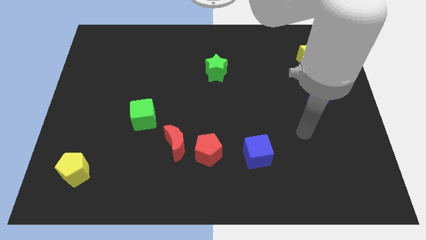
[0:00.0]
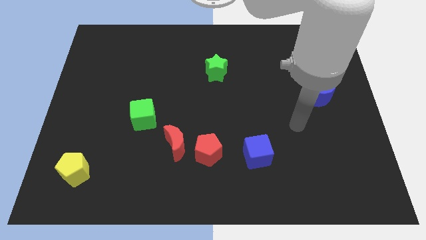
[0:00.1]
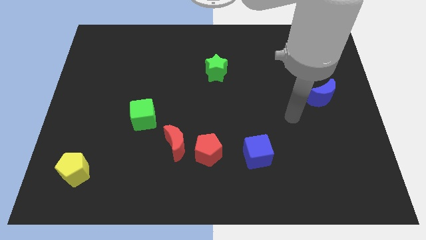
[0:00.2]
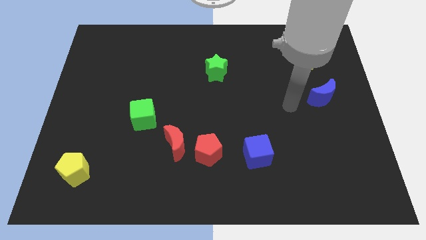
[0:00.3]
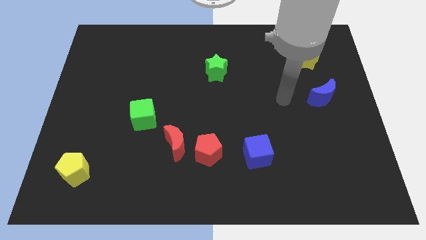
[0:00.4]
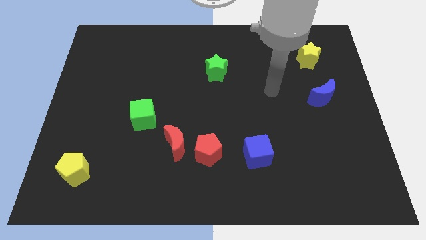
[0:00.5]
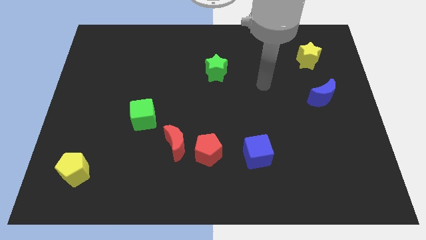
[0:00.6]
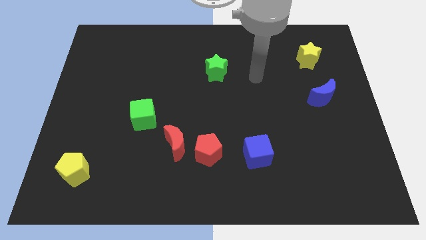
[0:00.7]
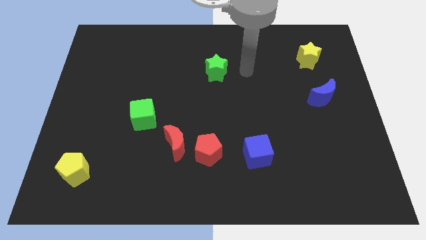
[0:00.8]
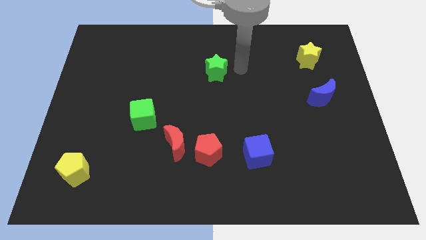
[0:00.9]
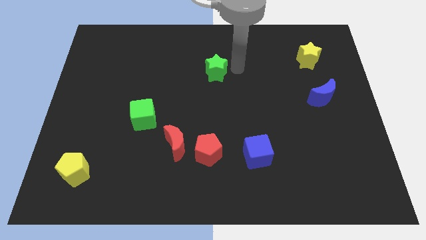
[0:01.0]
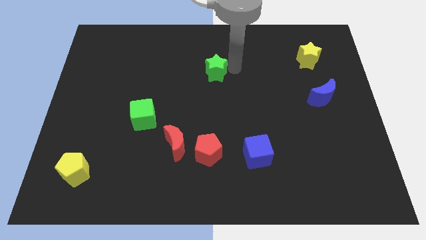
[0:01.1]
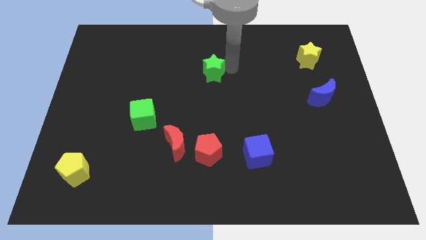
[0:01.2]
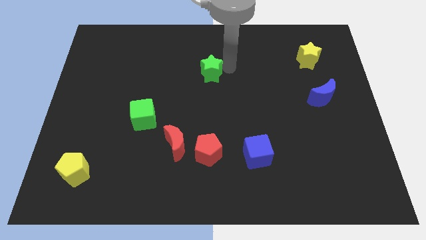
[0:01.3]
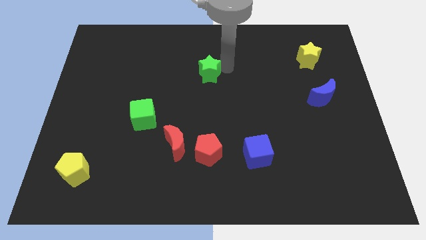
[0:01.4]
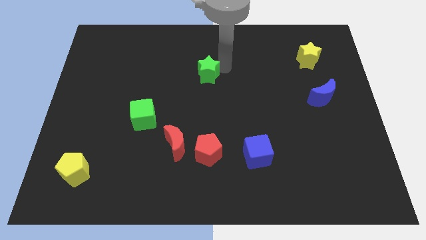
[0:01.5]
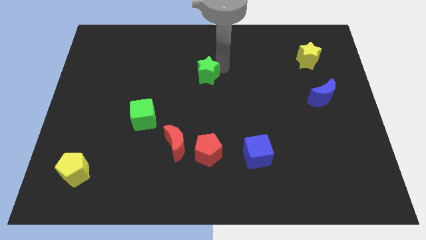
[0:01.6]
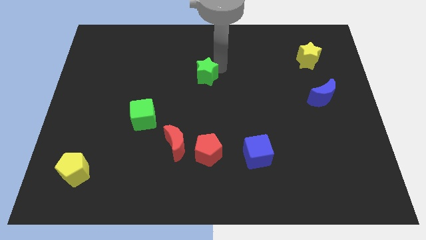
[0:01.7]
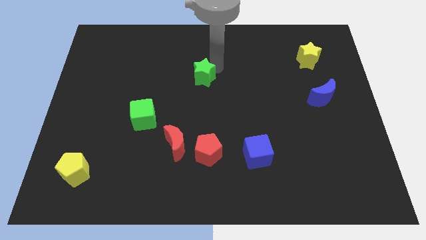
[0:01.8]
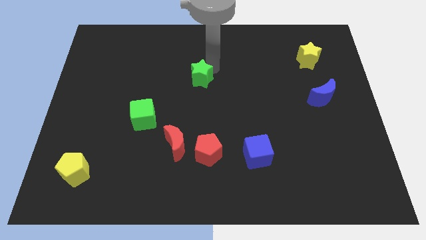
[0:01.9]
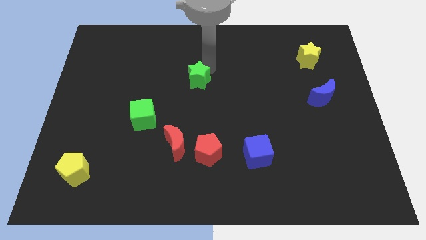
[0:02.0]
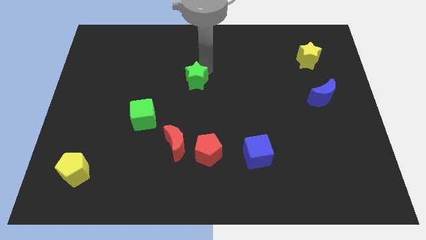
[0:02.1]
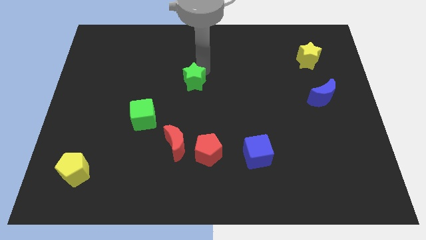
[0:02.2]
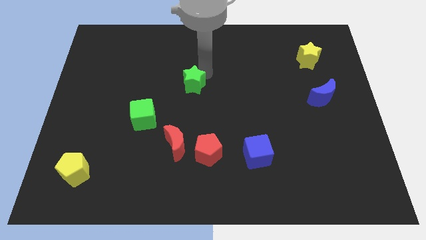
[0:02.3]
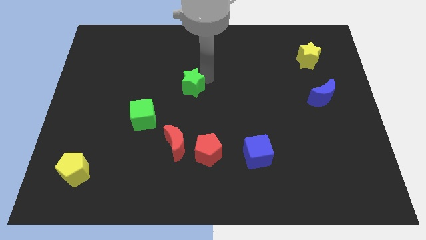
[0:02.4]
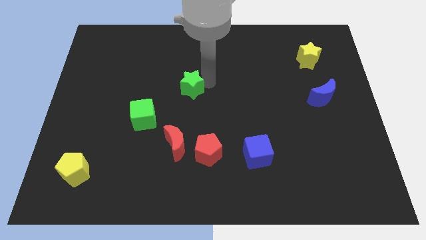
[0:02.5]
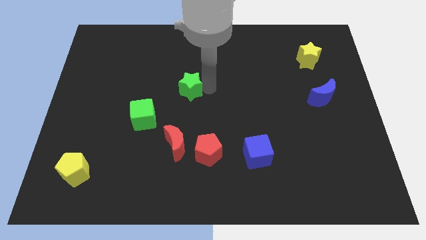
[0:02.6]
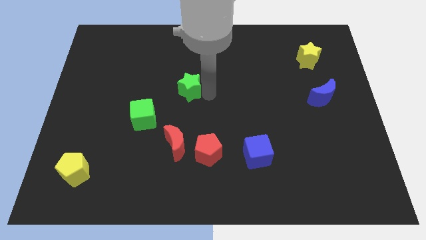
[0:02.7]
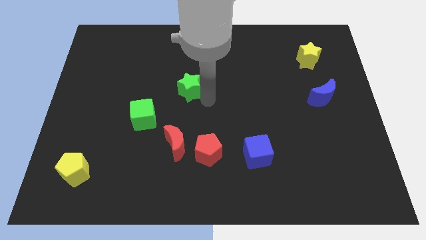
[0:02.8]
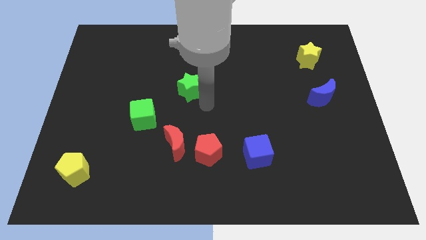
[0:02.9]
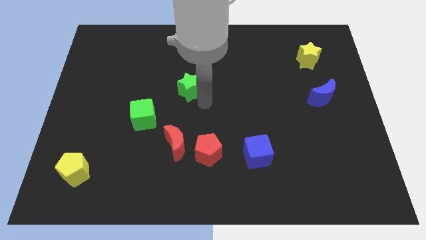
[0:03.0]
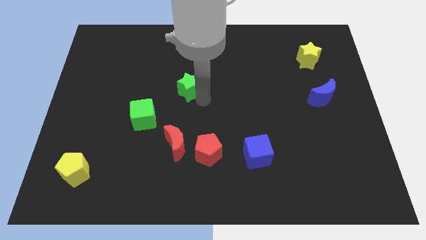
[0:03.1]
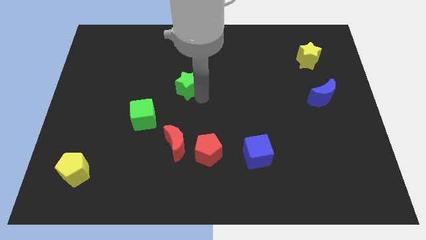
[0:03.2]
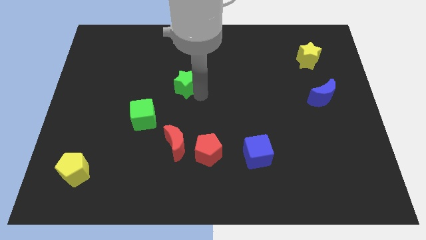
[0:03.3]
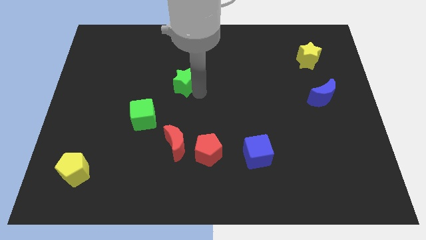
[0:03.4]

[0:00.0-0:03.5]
move the green star left somewhat

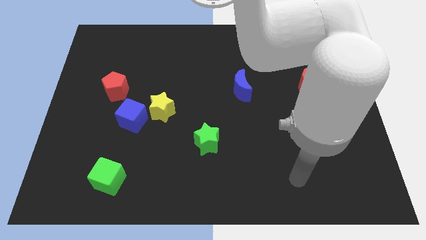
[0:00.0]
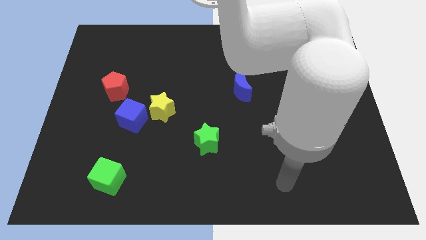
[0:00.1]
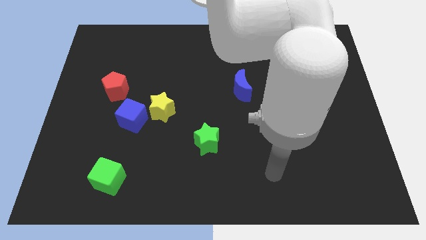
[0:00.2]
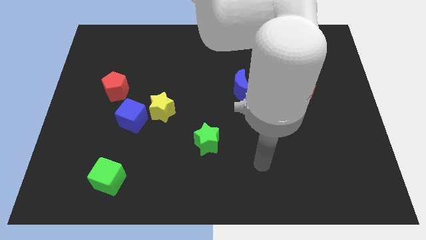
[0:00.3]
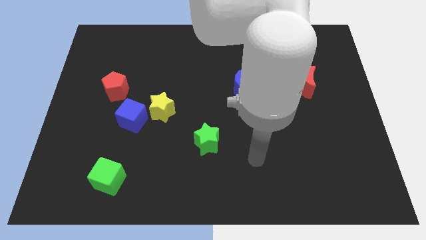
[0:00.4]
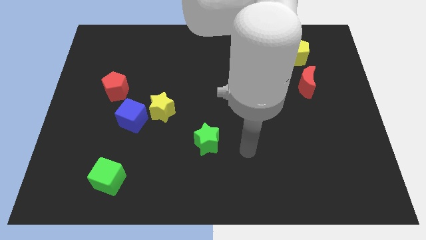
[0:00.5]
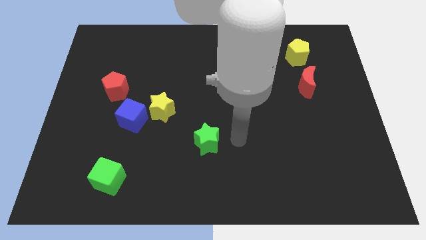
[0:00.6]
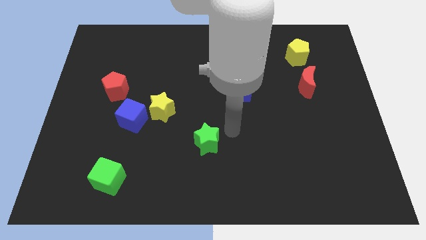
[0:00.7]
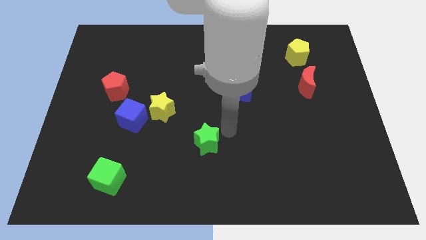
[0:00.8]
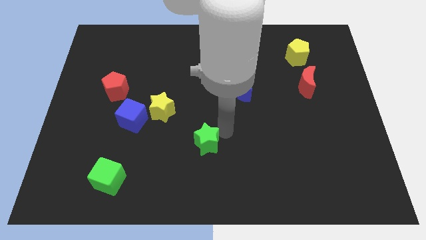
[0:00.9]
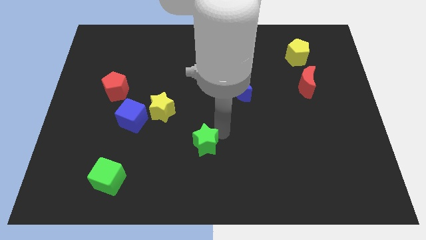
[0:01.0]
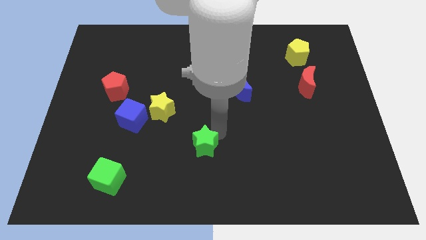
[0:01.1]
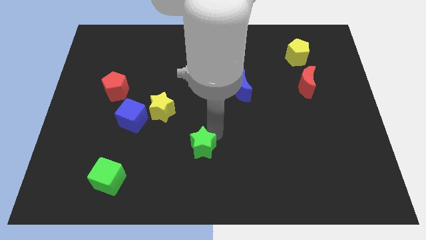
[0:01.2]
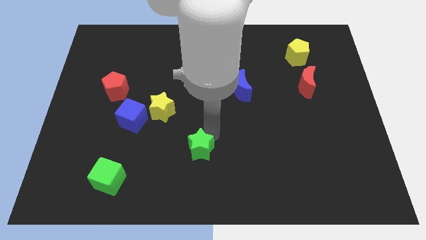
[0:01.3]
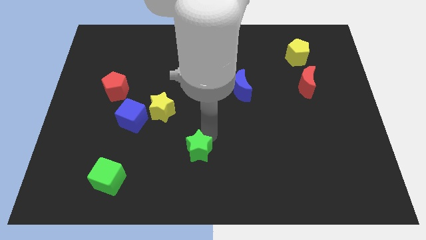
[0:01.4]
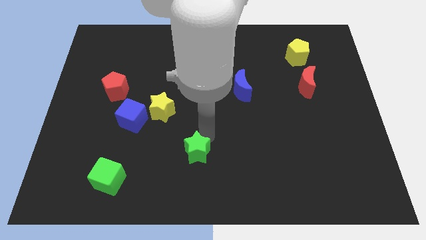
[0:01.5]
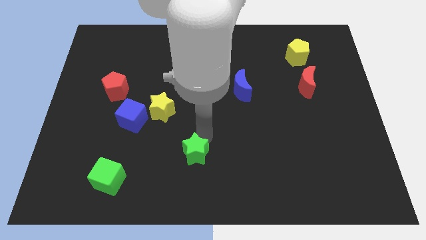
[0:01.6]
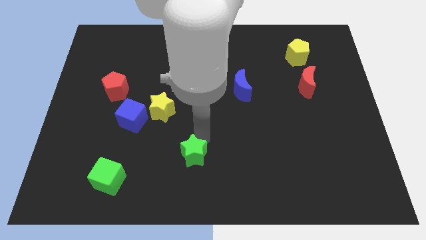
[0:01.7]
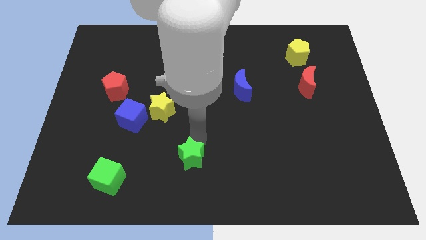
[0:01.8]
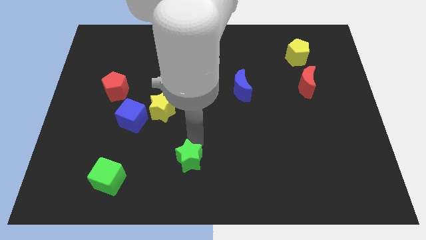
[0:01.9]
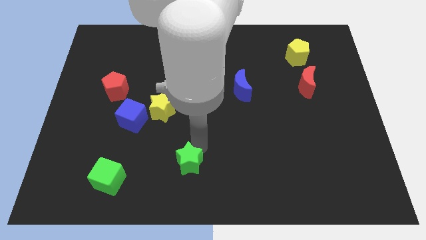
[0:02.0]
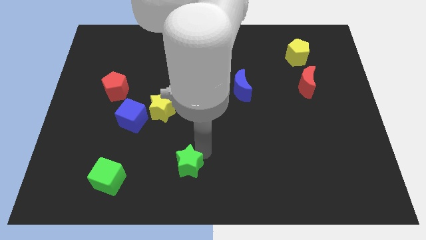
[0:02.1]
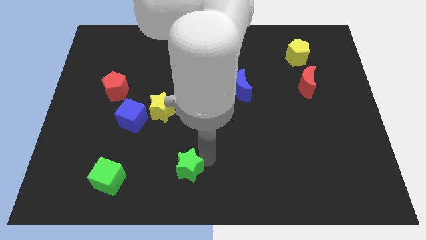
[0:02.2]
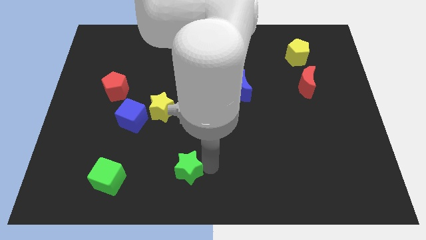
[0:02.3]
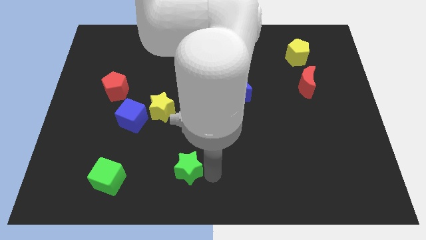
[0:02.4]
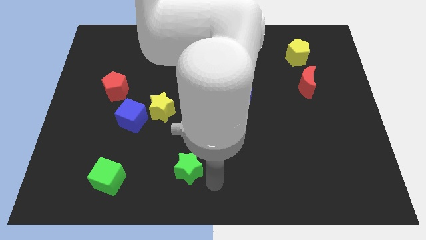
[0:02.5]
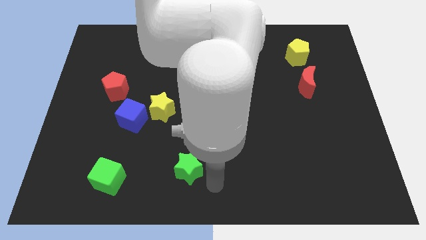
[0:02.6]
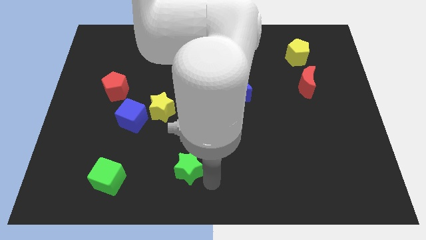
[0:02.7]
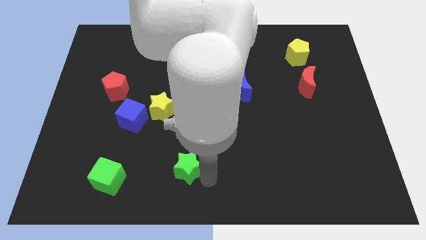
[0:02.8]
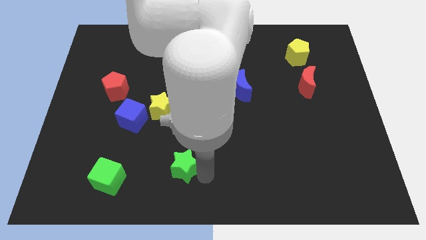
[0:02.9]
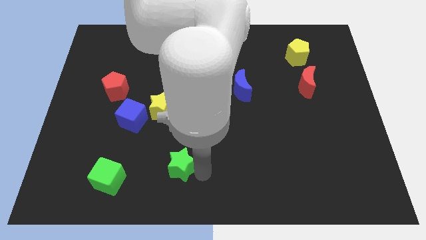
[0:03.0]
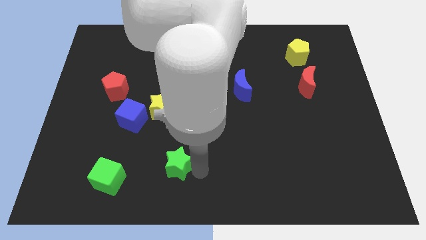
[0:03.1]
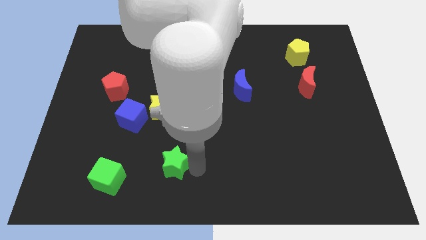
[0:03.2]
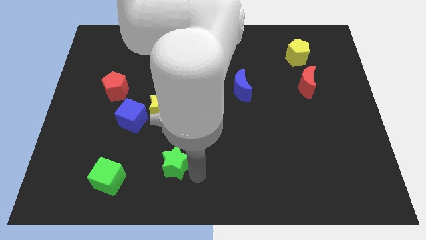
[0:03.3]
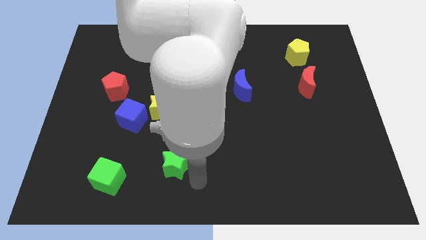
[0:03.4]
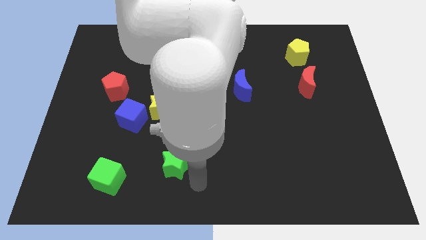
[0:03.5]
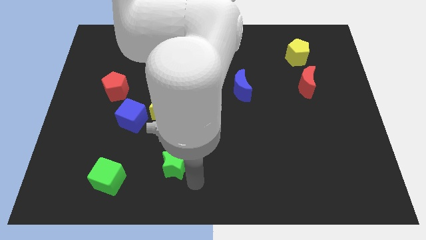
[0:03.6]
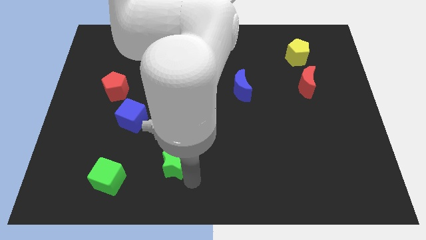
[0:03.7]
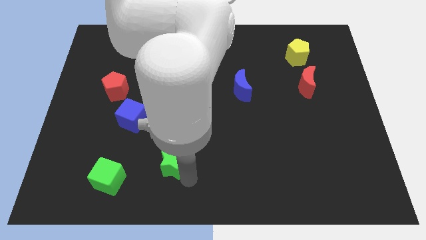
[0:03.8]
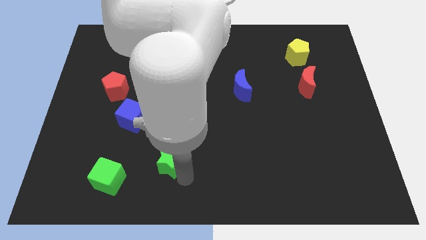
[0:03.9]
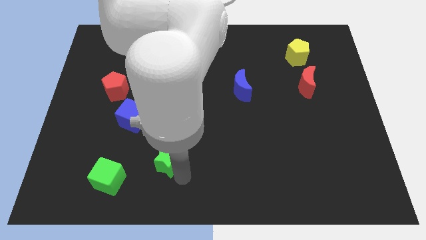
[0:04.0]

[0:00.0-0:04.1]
slightly slide the green star left

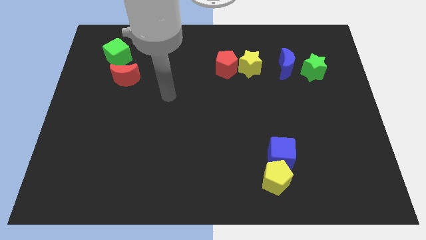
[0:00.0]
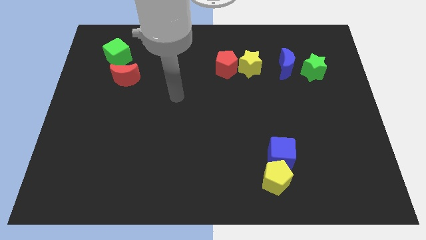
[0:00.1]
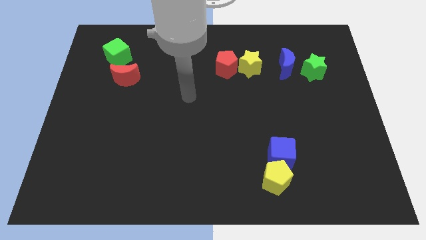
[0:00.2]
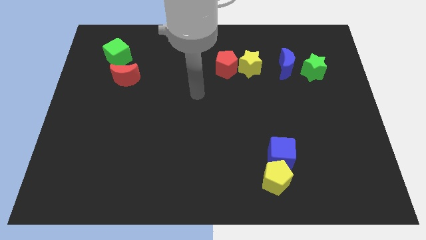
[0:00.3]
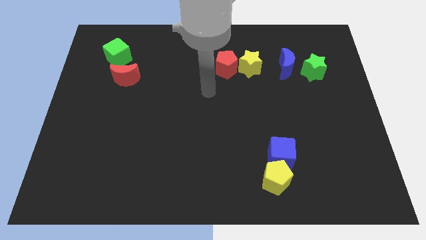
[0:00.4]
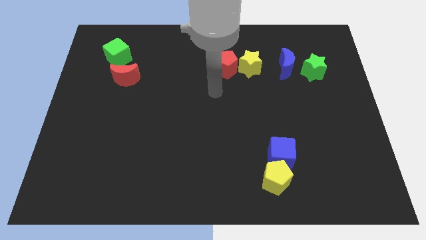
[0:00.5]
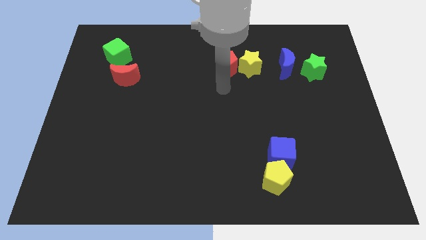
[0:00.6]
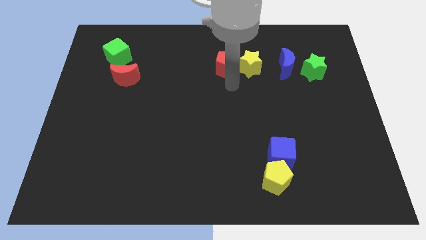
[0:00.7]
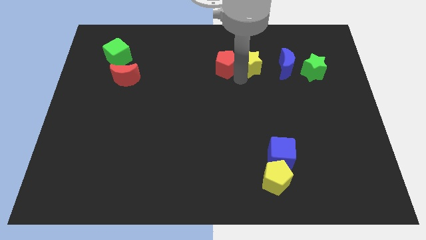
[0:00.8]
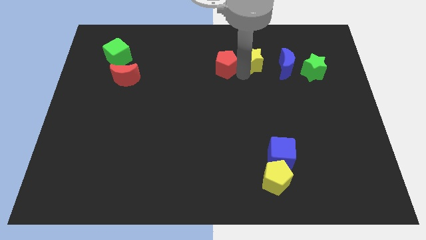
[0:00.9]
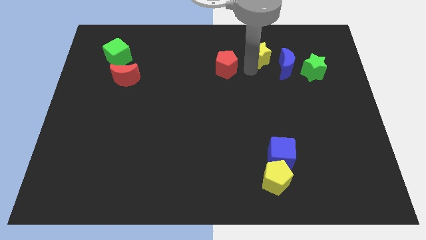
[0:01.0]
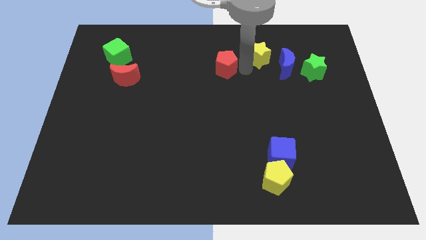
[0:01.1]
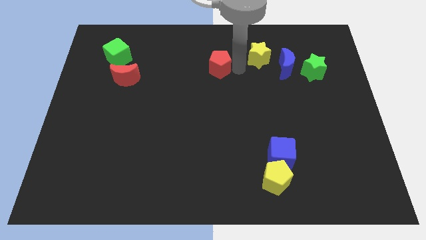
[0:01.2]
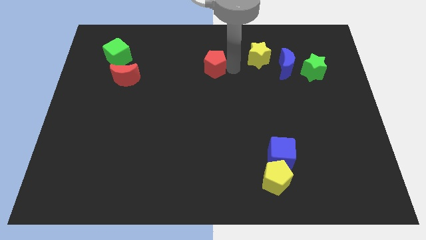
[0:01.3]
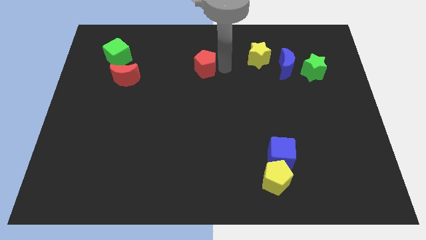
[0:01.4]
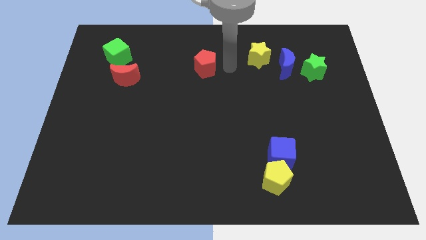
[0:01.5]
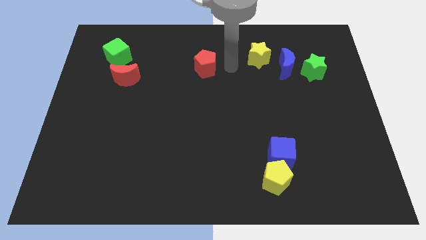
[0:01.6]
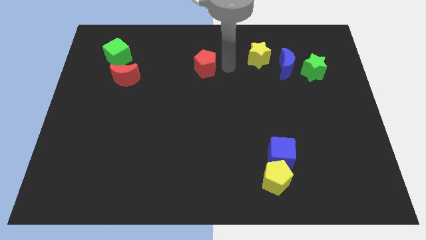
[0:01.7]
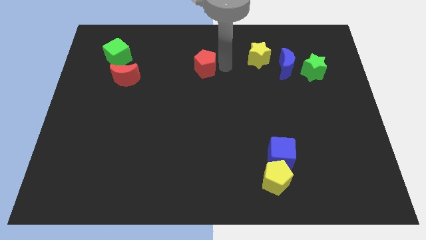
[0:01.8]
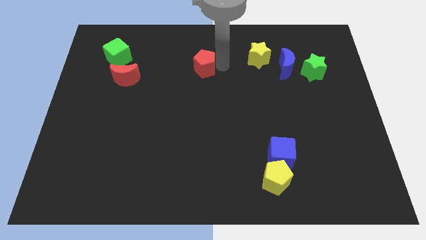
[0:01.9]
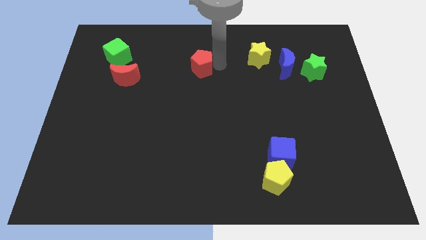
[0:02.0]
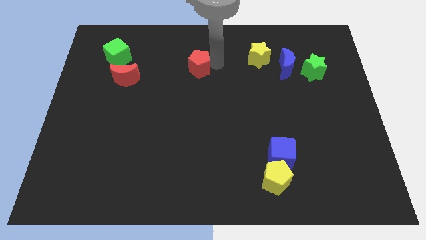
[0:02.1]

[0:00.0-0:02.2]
move the red pentagon a little bit left
